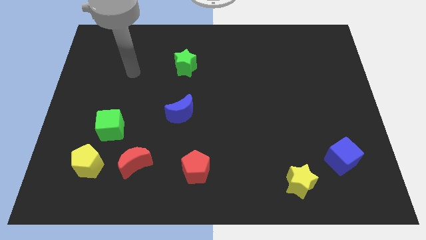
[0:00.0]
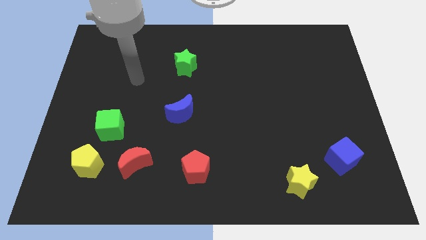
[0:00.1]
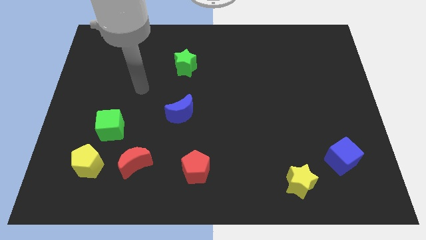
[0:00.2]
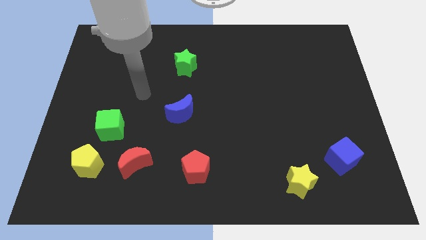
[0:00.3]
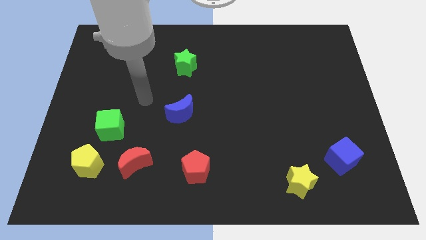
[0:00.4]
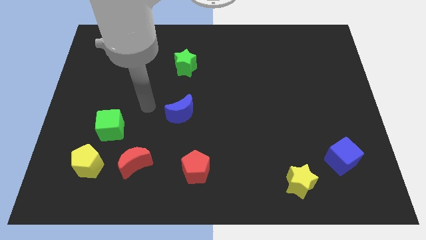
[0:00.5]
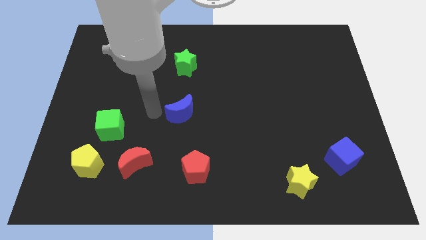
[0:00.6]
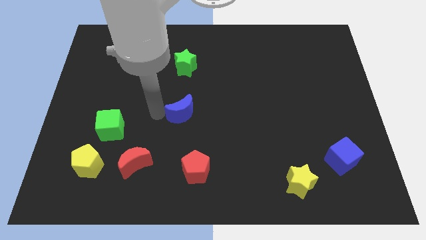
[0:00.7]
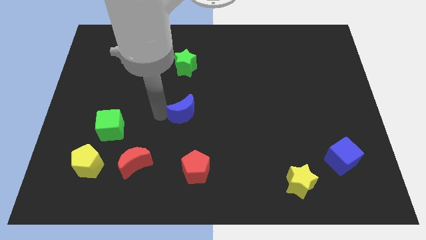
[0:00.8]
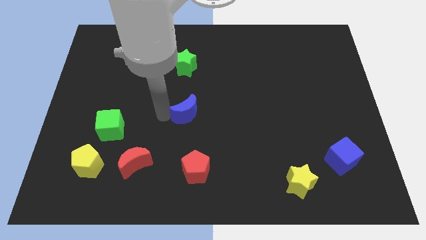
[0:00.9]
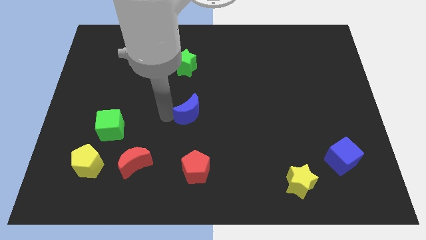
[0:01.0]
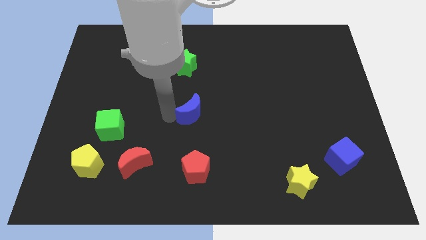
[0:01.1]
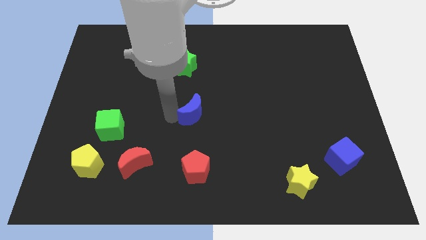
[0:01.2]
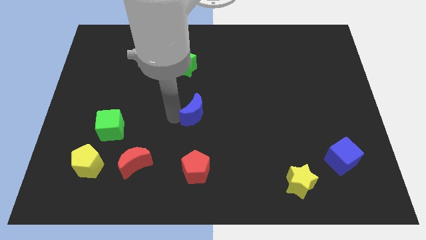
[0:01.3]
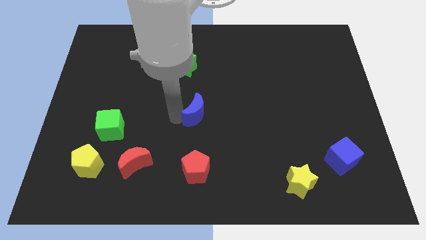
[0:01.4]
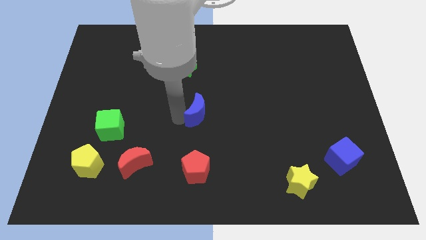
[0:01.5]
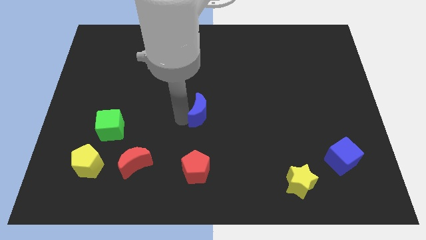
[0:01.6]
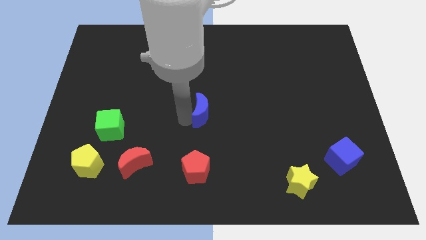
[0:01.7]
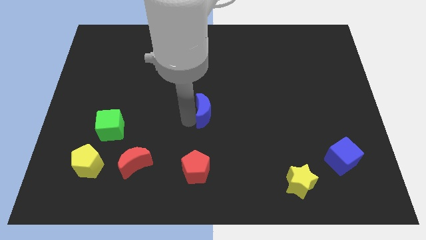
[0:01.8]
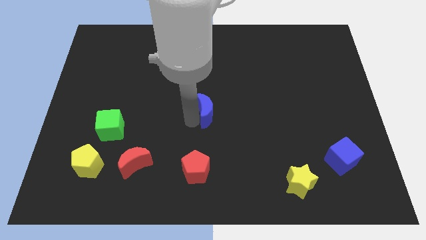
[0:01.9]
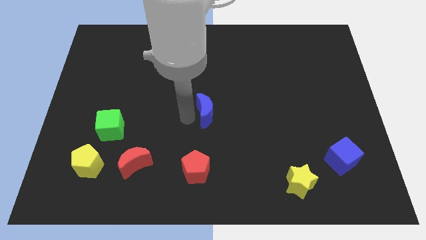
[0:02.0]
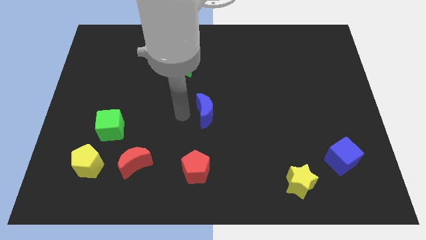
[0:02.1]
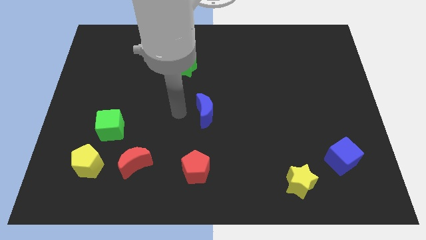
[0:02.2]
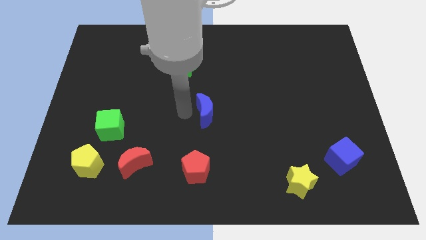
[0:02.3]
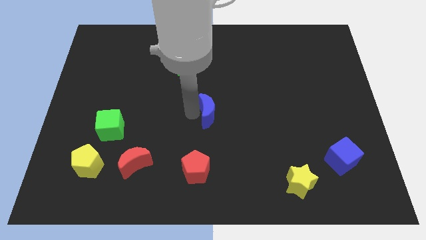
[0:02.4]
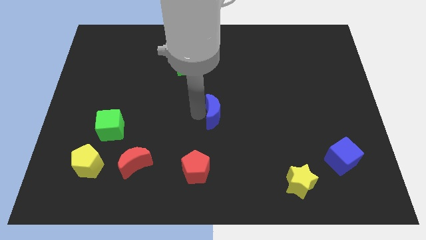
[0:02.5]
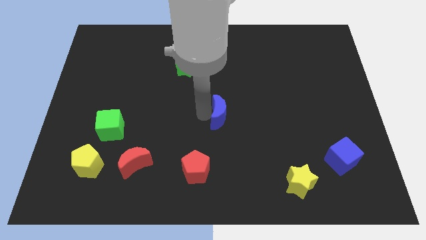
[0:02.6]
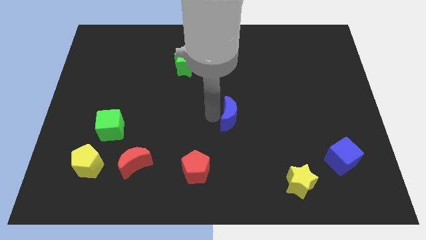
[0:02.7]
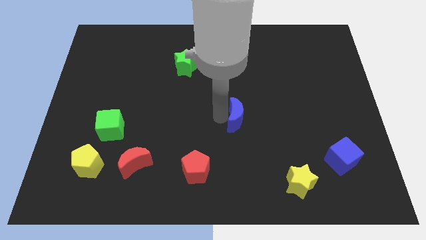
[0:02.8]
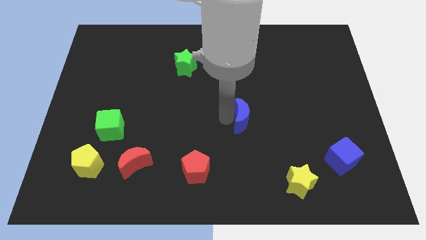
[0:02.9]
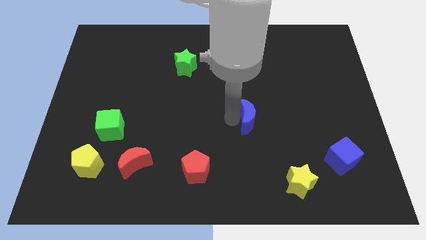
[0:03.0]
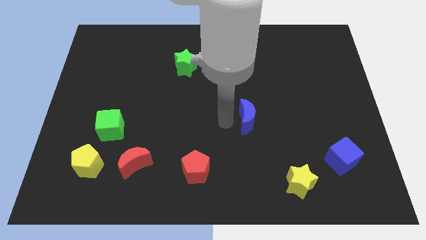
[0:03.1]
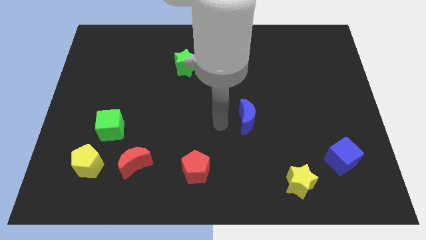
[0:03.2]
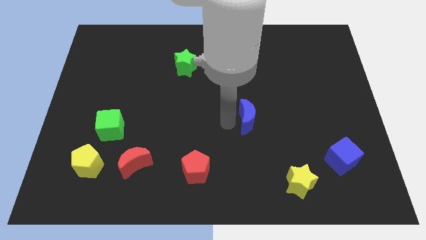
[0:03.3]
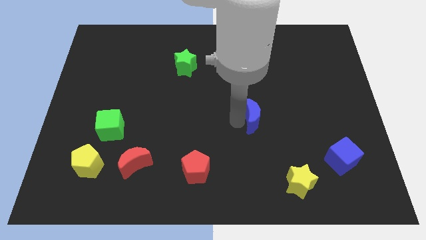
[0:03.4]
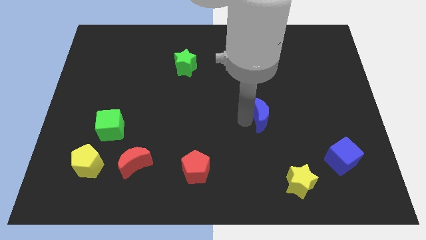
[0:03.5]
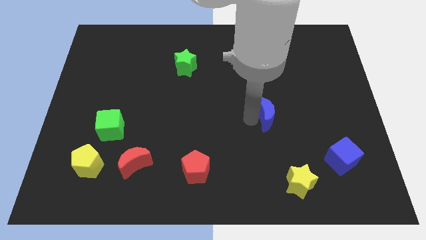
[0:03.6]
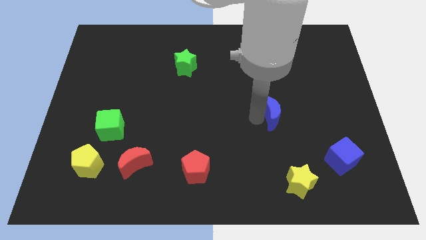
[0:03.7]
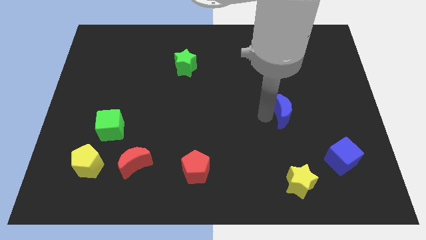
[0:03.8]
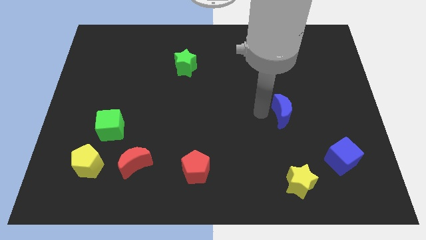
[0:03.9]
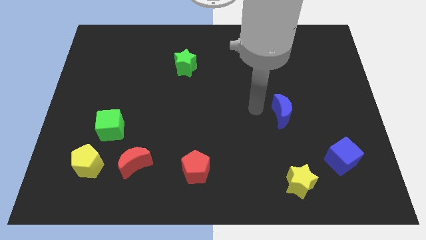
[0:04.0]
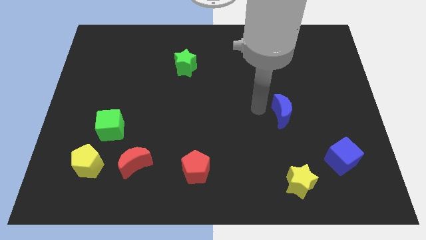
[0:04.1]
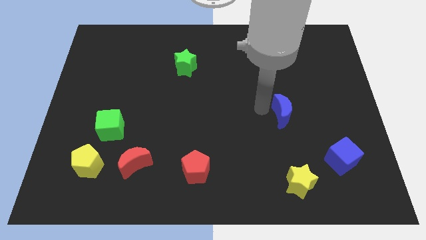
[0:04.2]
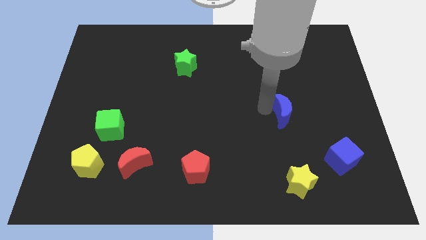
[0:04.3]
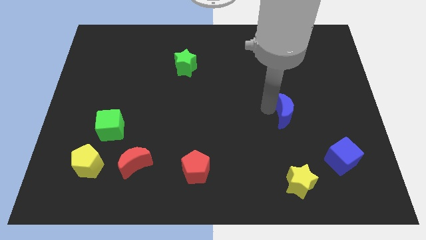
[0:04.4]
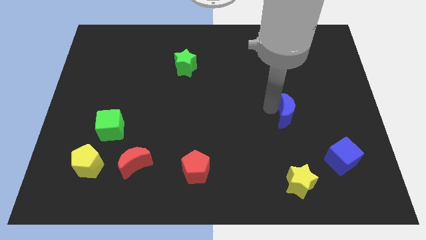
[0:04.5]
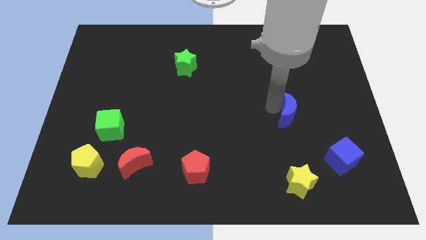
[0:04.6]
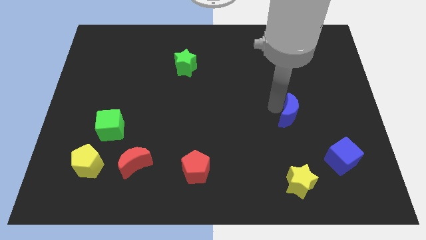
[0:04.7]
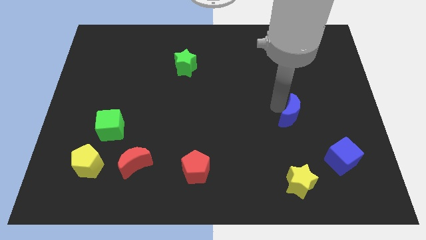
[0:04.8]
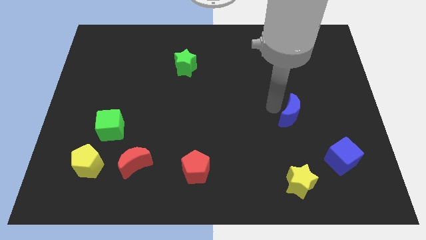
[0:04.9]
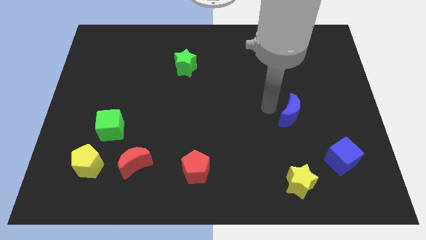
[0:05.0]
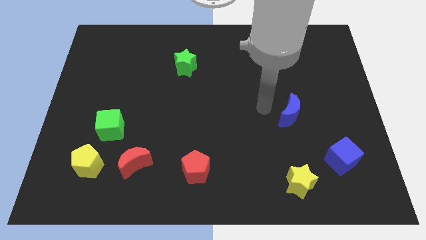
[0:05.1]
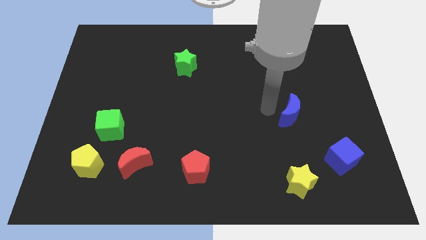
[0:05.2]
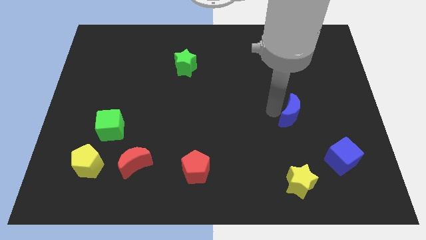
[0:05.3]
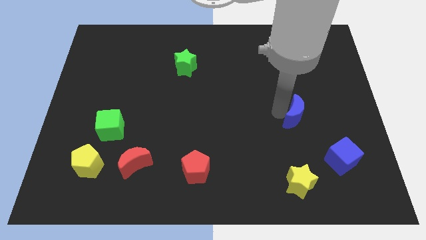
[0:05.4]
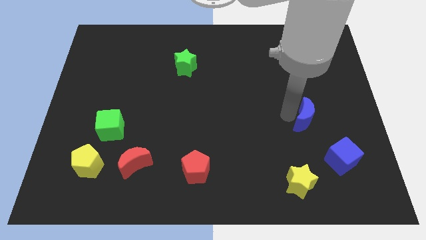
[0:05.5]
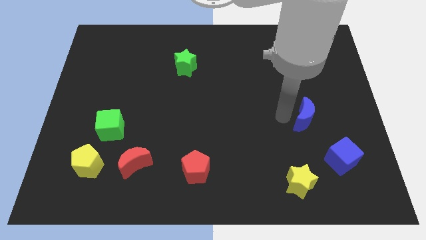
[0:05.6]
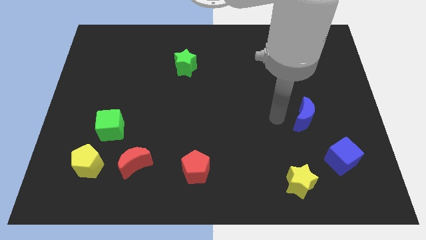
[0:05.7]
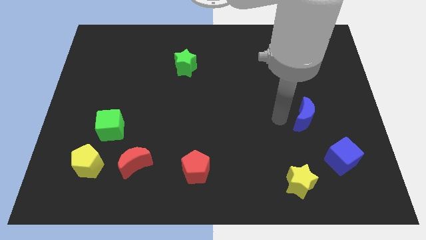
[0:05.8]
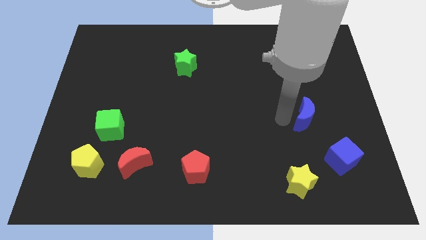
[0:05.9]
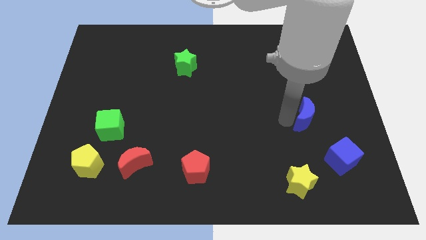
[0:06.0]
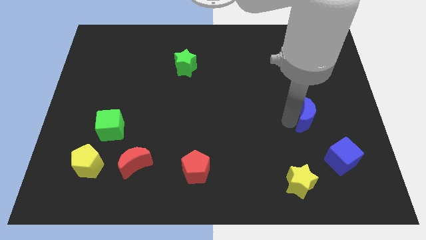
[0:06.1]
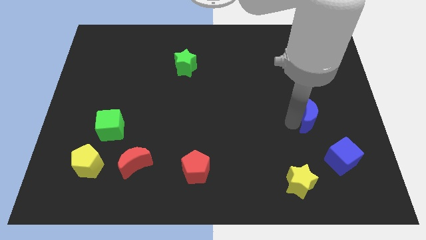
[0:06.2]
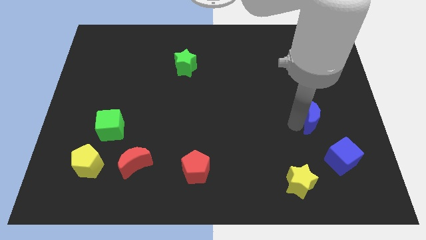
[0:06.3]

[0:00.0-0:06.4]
push the blue moon to the top of the blue cube
